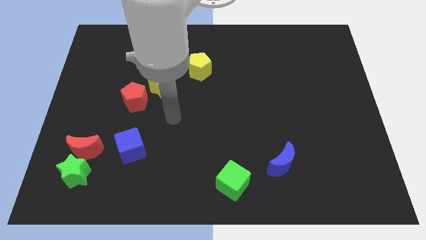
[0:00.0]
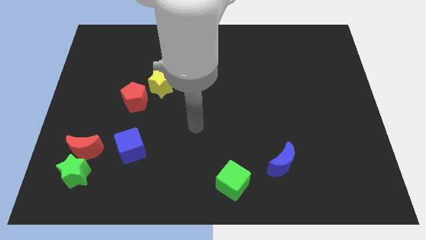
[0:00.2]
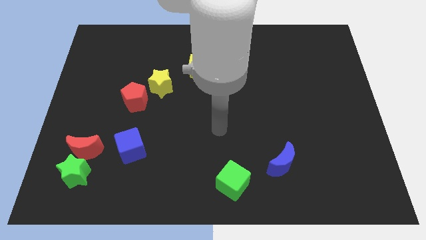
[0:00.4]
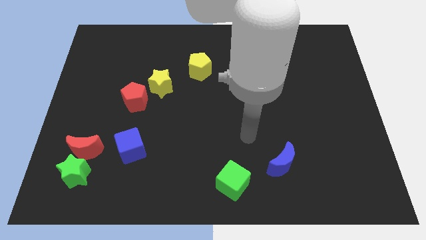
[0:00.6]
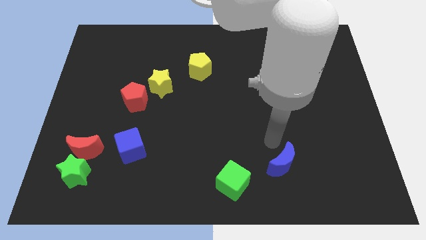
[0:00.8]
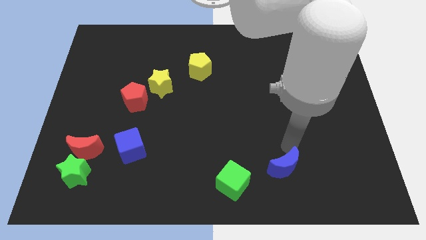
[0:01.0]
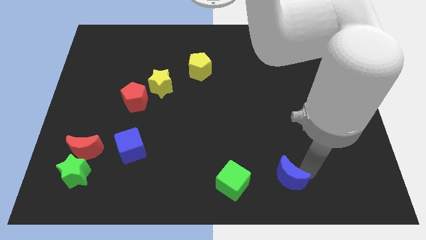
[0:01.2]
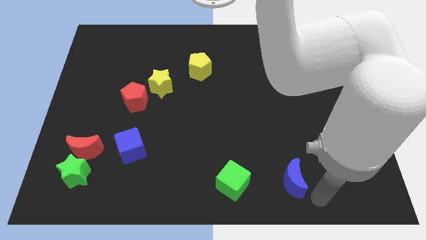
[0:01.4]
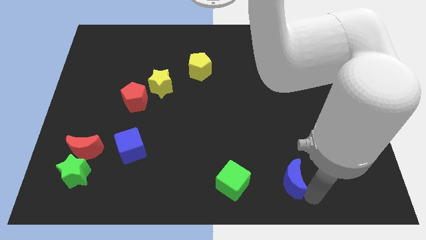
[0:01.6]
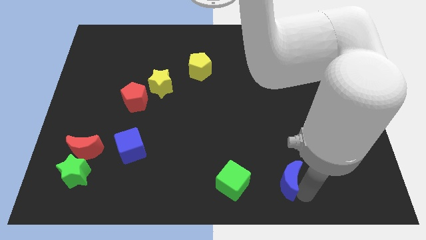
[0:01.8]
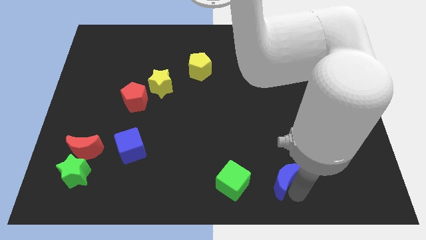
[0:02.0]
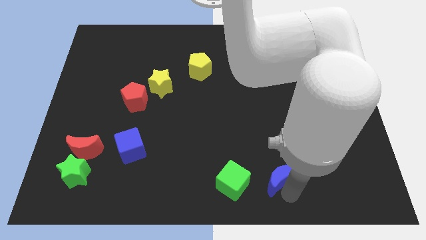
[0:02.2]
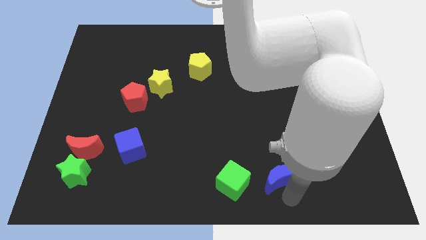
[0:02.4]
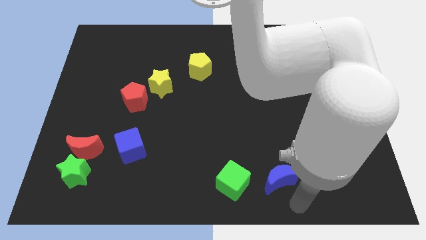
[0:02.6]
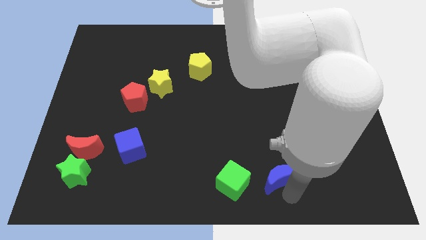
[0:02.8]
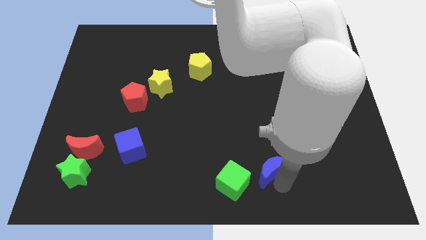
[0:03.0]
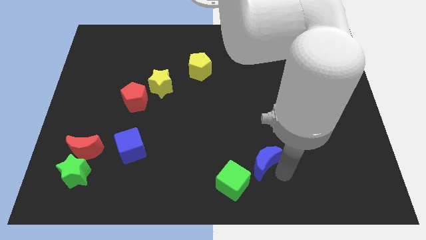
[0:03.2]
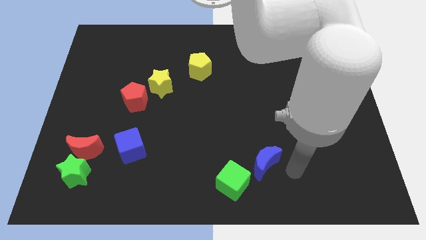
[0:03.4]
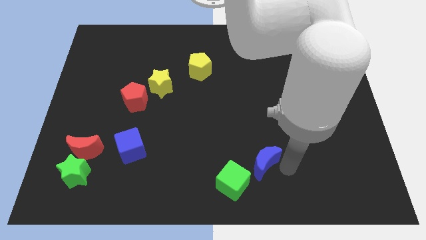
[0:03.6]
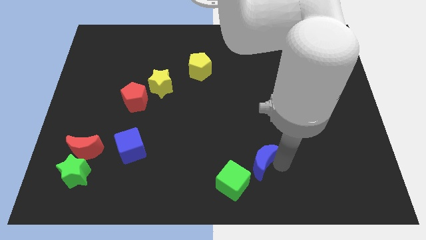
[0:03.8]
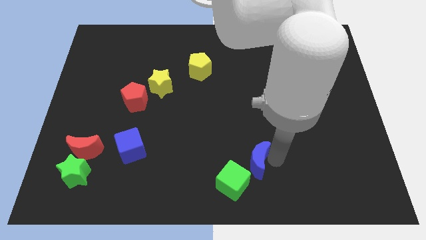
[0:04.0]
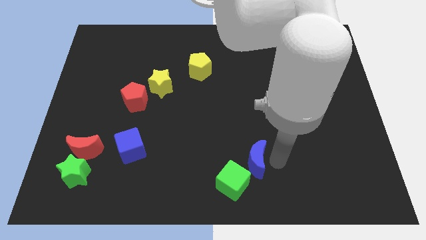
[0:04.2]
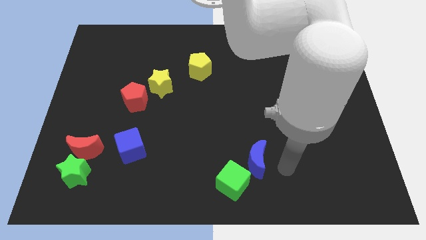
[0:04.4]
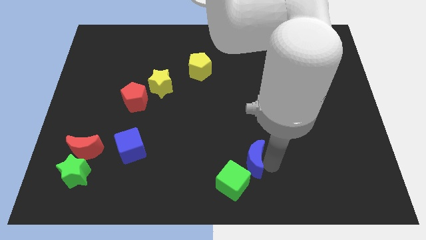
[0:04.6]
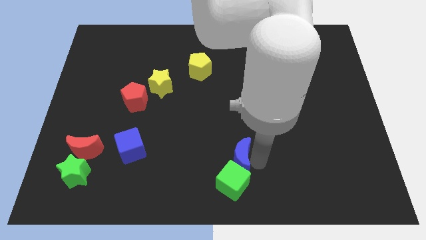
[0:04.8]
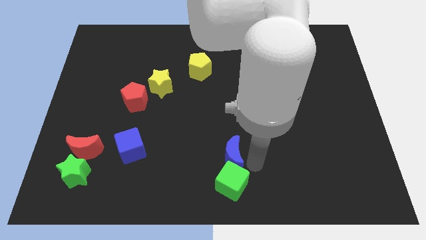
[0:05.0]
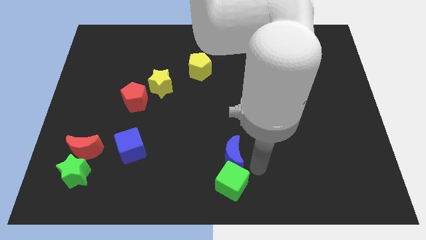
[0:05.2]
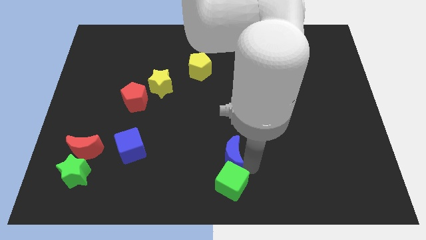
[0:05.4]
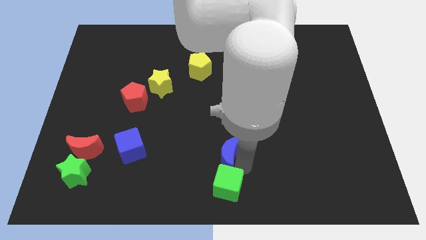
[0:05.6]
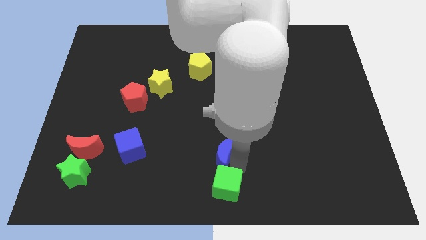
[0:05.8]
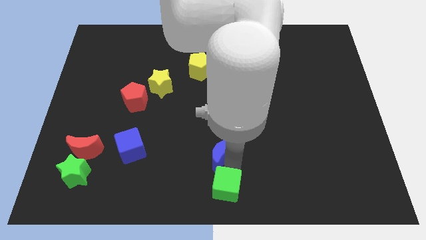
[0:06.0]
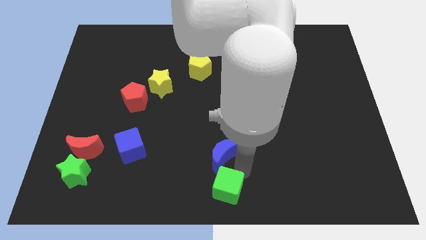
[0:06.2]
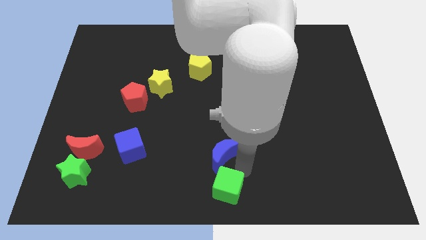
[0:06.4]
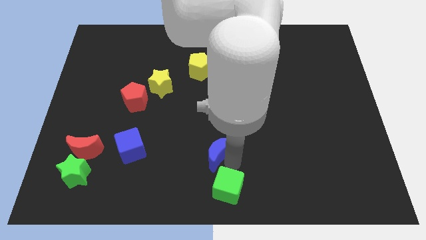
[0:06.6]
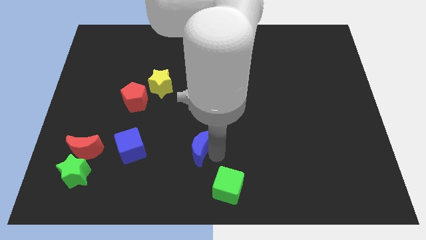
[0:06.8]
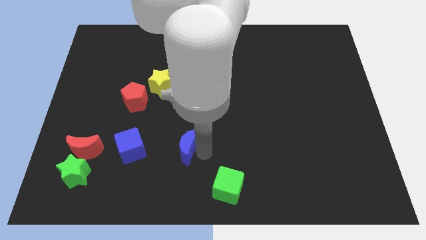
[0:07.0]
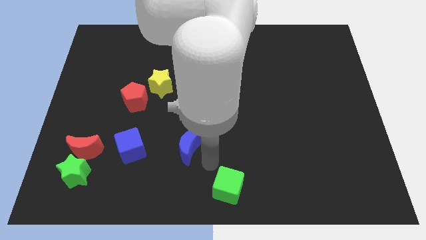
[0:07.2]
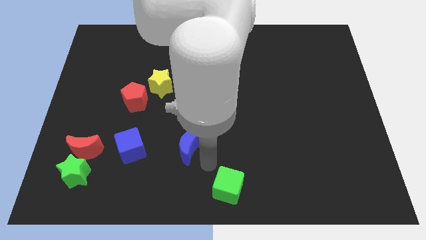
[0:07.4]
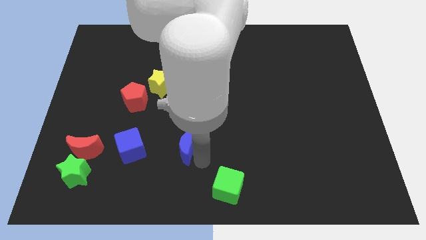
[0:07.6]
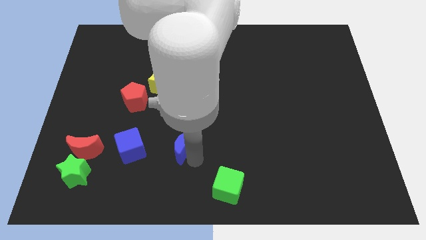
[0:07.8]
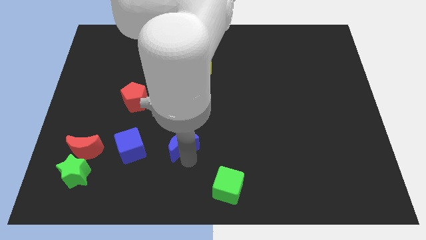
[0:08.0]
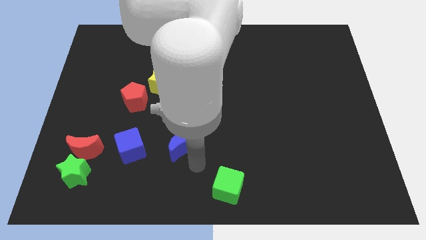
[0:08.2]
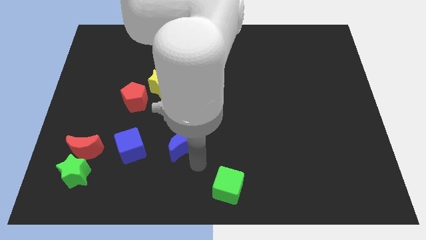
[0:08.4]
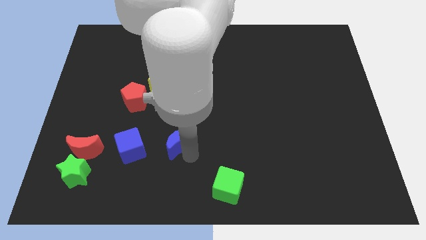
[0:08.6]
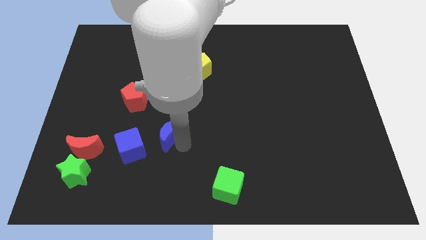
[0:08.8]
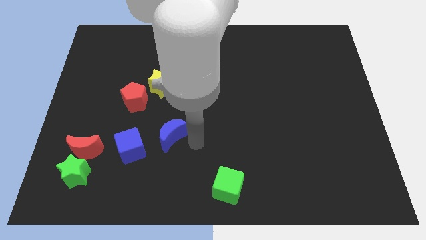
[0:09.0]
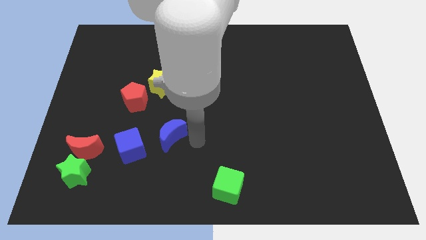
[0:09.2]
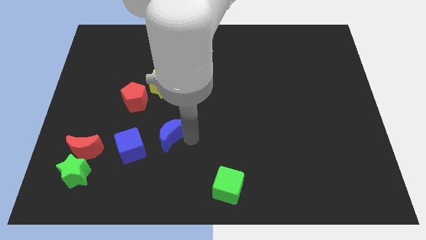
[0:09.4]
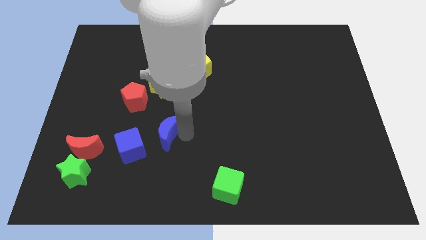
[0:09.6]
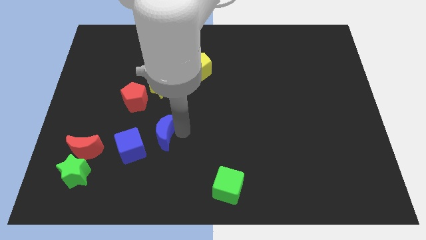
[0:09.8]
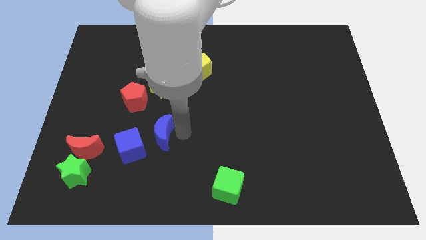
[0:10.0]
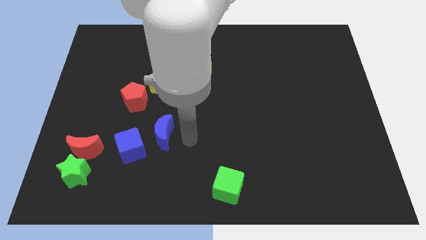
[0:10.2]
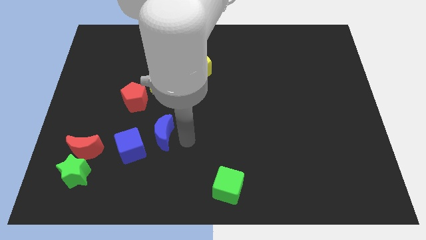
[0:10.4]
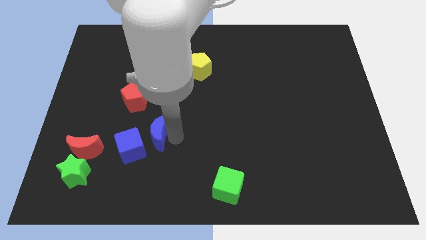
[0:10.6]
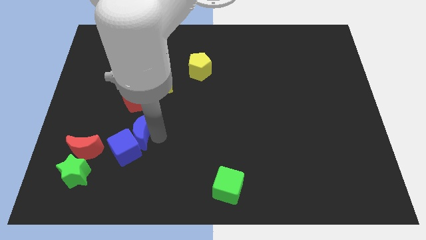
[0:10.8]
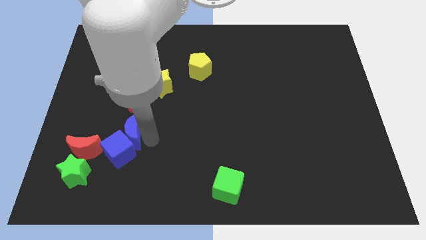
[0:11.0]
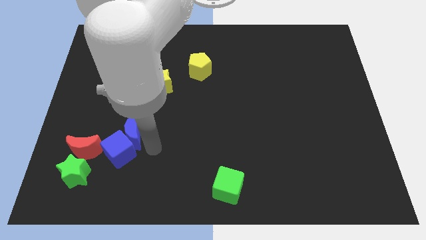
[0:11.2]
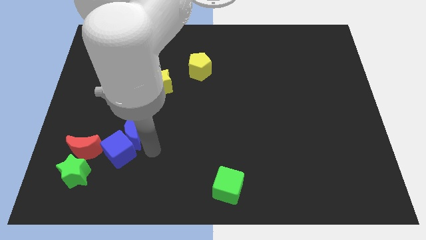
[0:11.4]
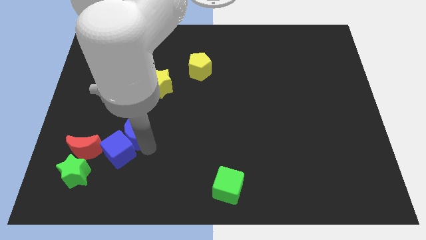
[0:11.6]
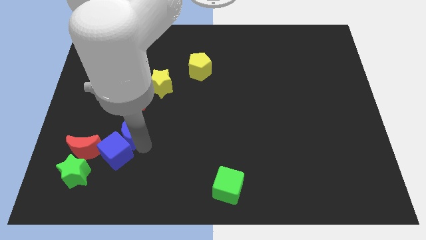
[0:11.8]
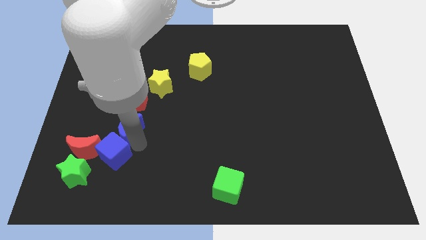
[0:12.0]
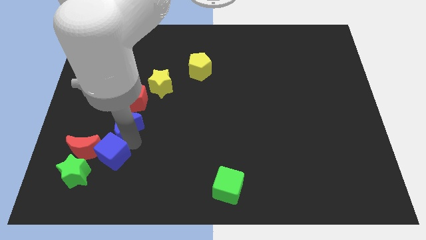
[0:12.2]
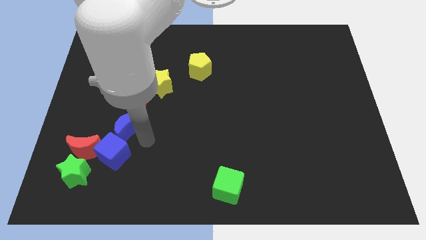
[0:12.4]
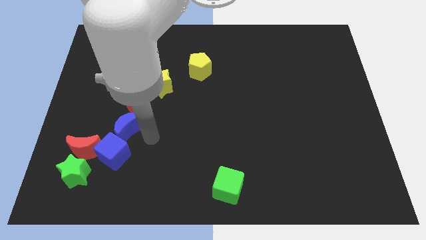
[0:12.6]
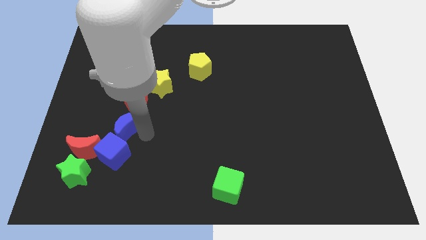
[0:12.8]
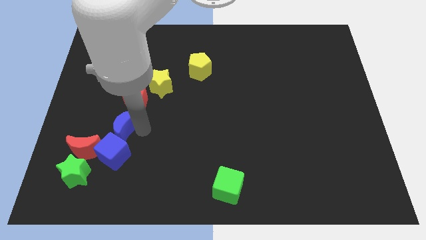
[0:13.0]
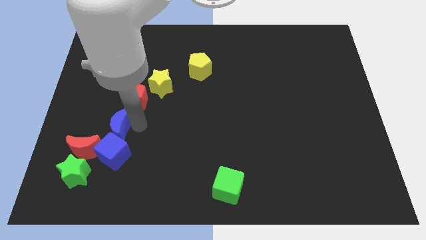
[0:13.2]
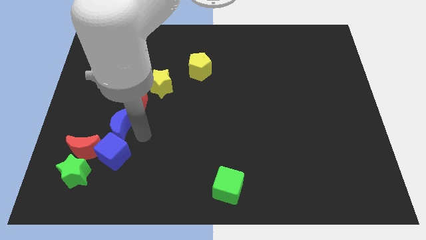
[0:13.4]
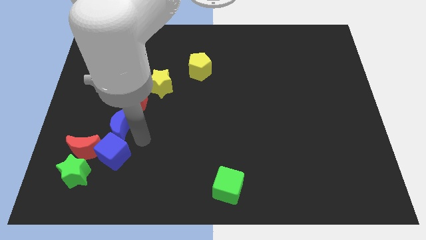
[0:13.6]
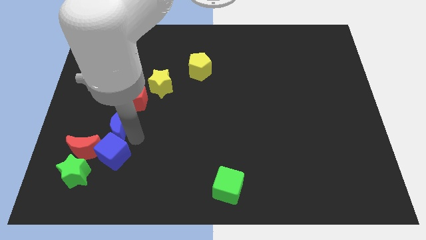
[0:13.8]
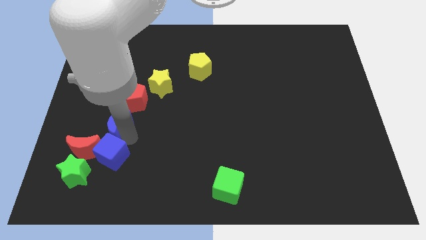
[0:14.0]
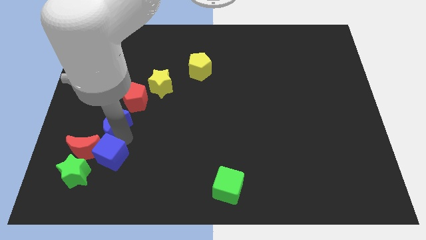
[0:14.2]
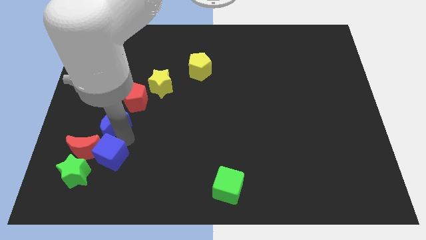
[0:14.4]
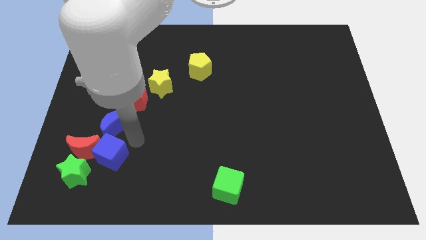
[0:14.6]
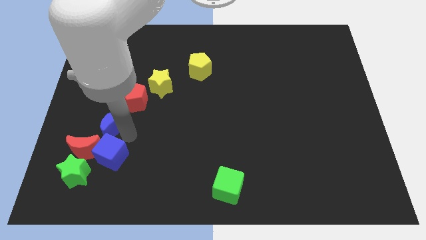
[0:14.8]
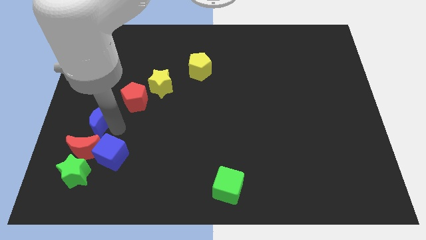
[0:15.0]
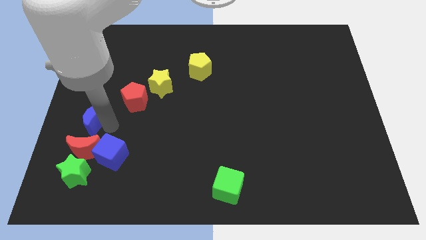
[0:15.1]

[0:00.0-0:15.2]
slide the blue moon to the left side of the board
